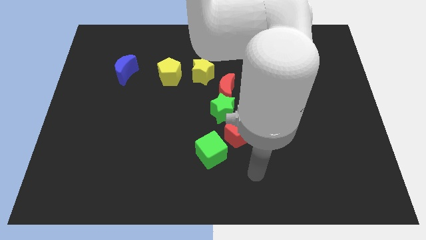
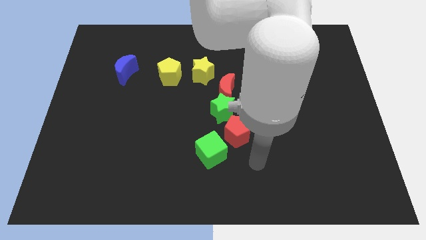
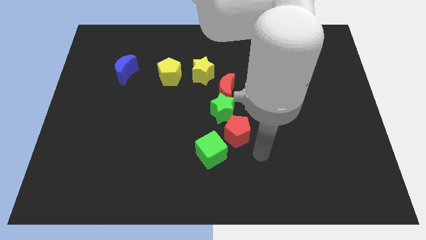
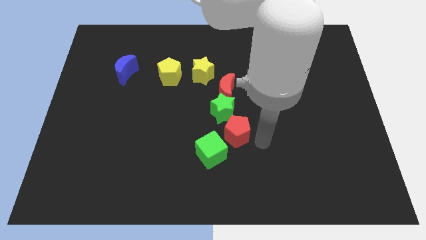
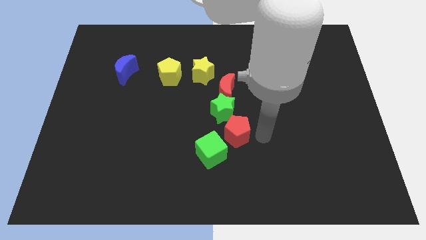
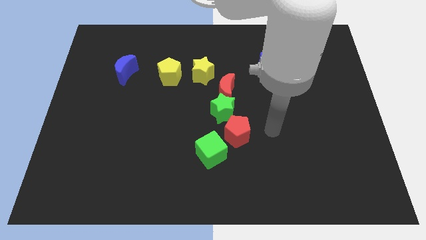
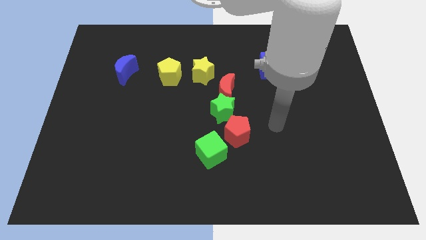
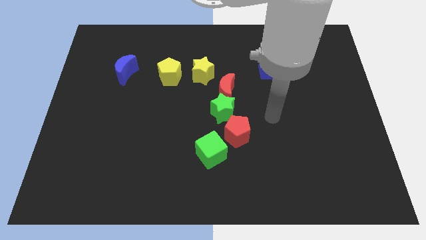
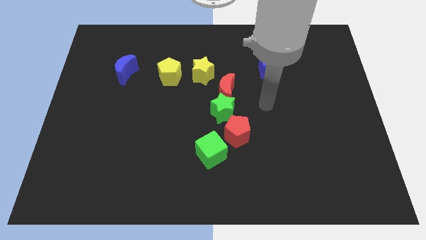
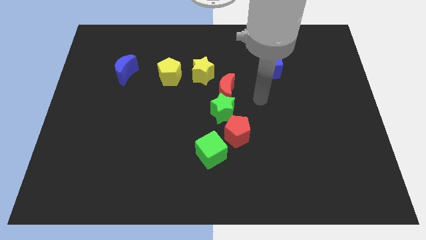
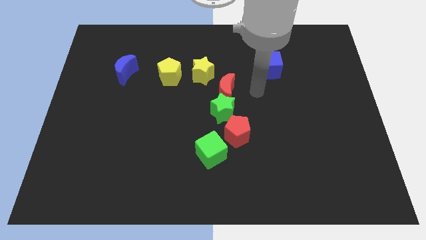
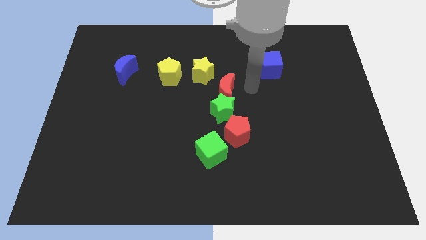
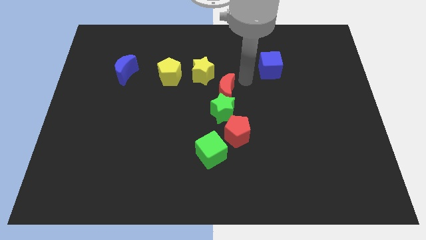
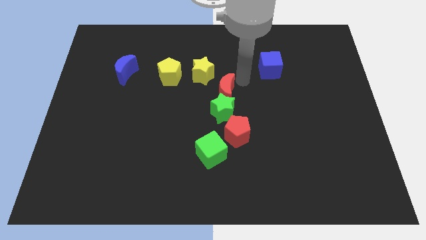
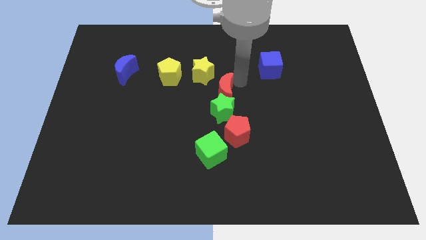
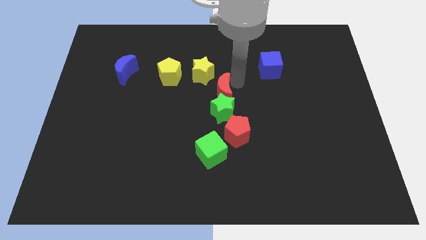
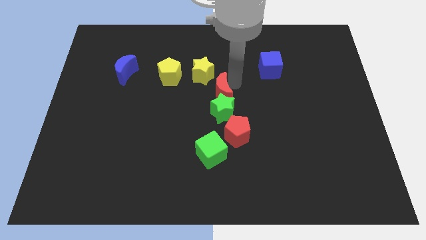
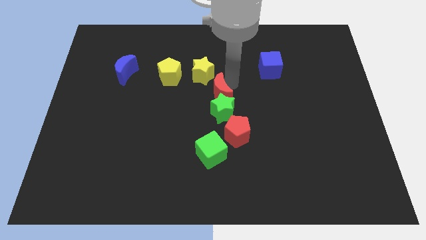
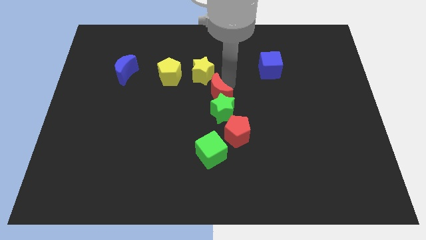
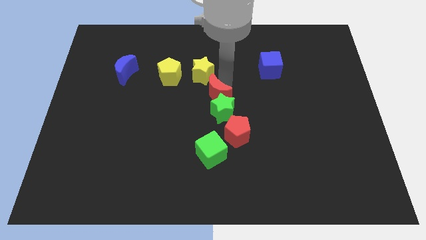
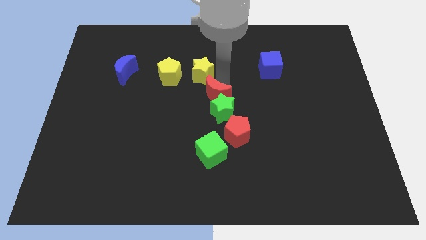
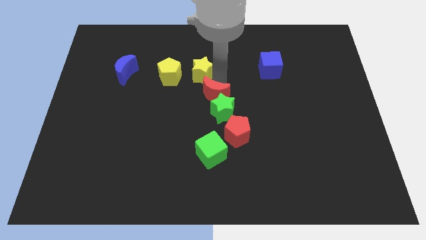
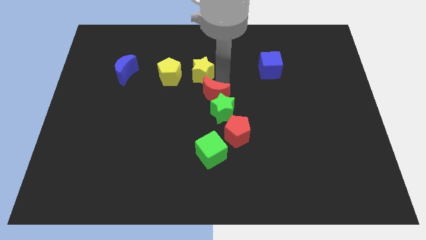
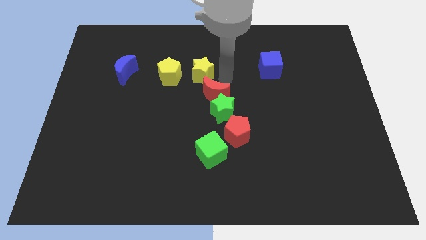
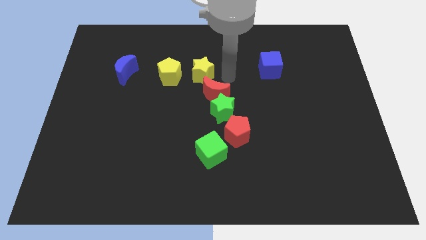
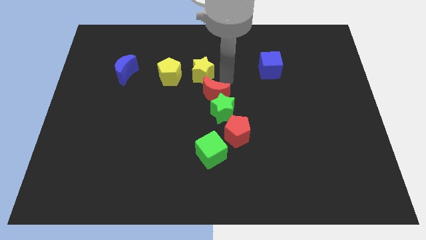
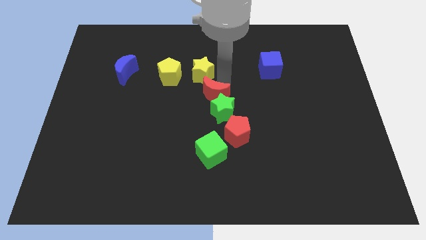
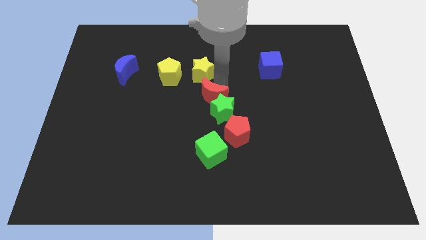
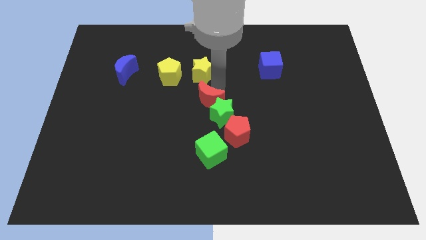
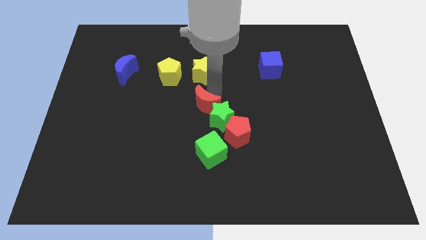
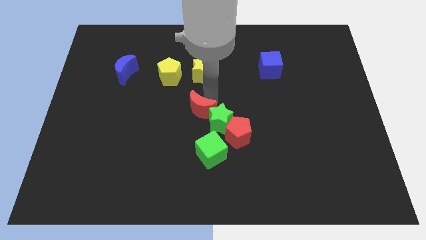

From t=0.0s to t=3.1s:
push the red moon diagonally downwards and to the left a little bit

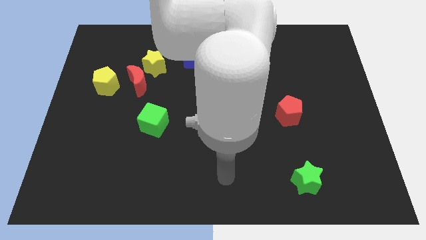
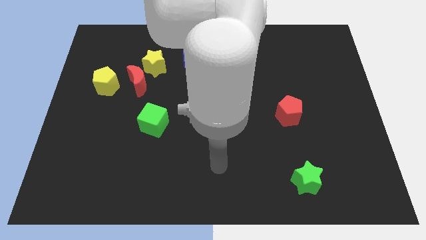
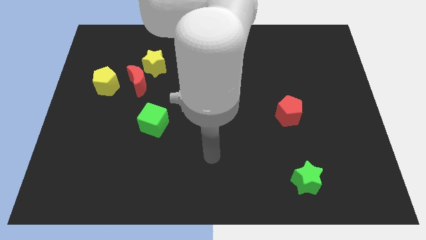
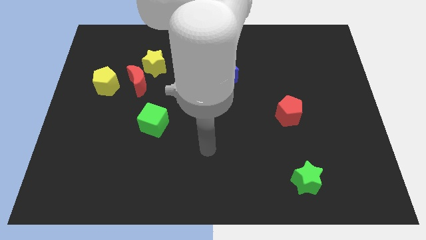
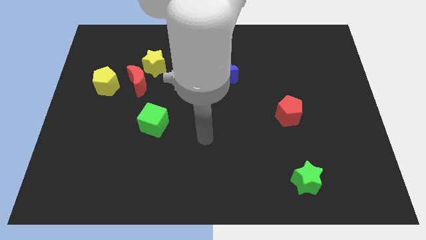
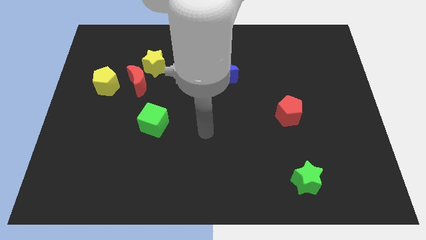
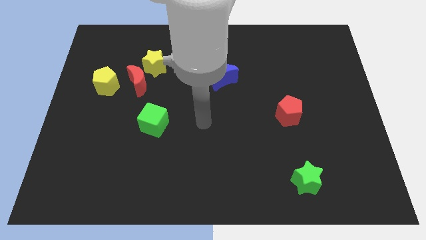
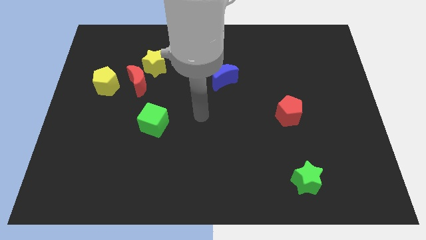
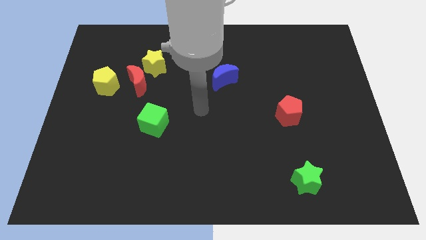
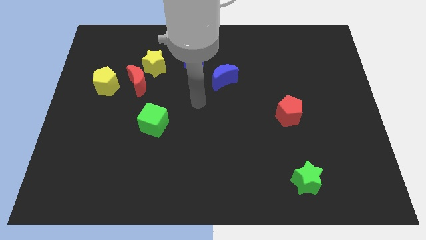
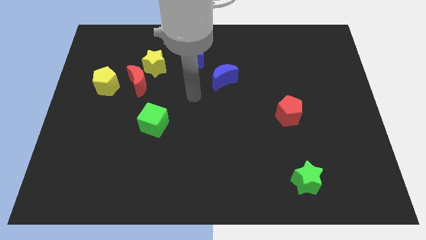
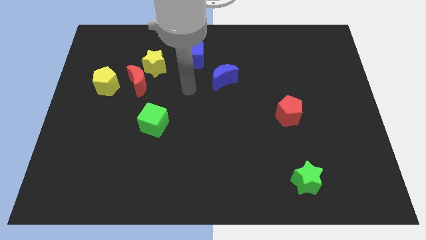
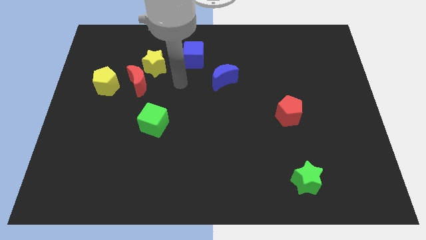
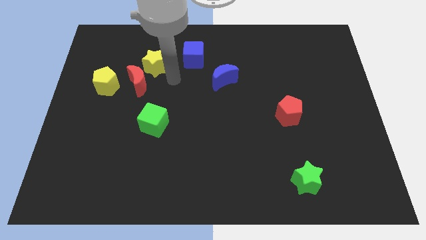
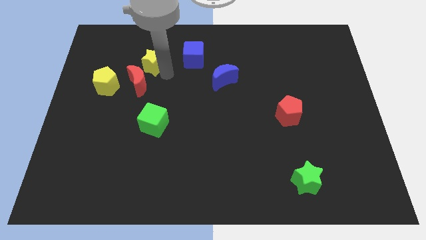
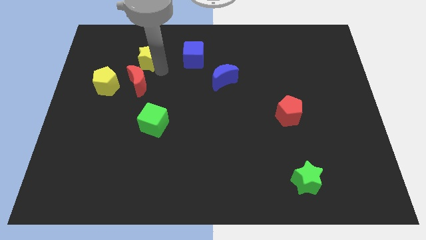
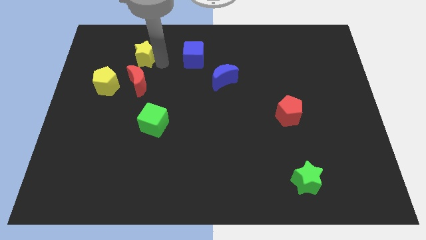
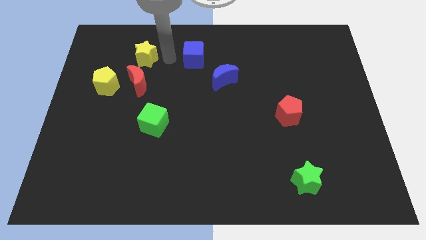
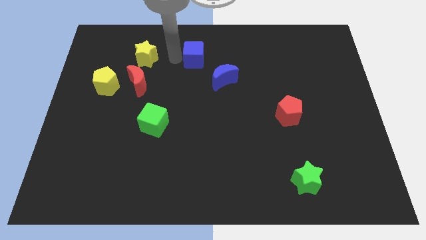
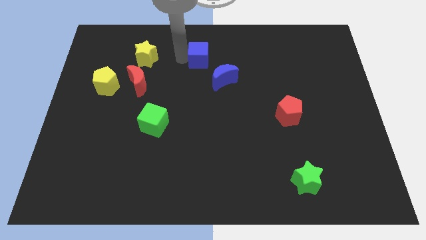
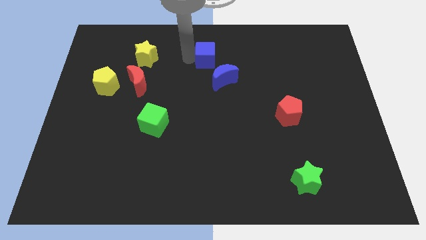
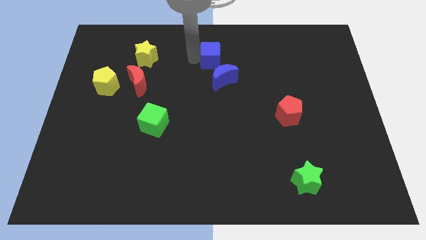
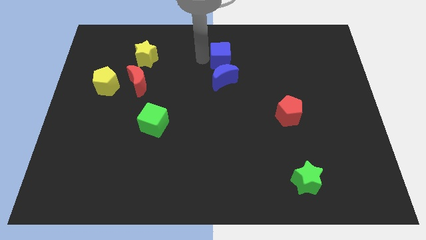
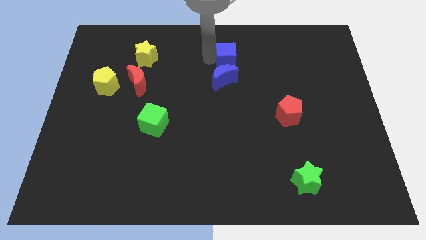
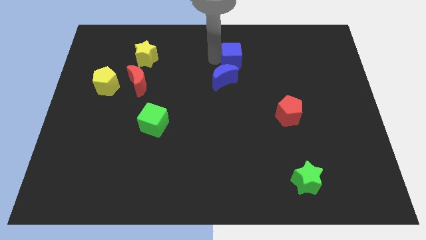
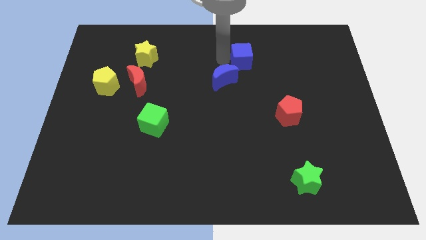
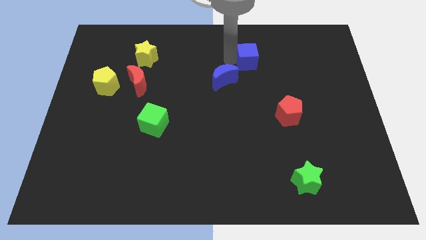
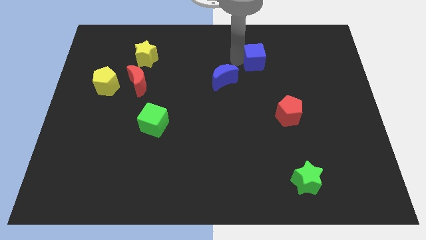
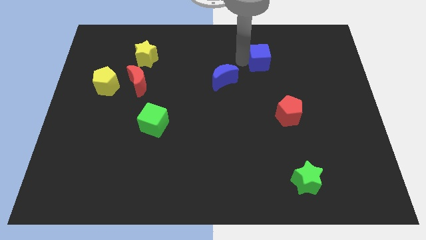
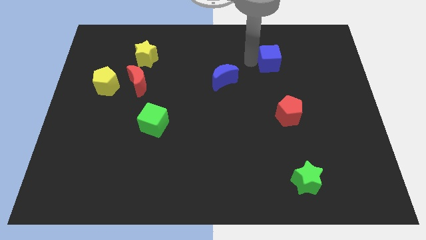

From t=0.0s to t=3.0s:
move the blue cube right

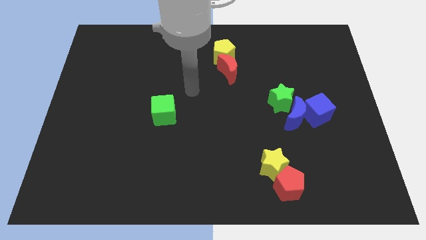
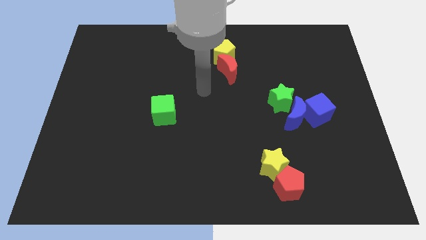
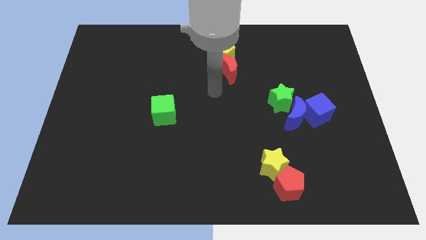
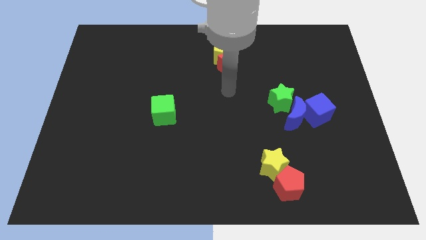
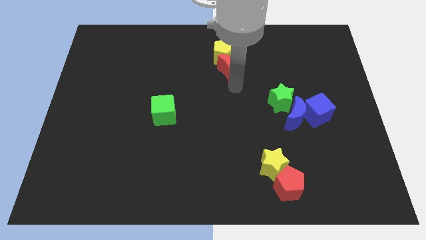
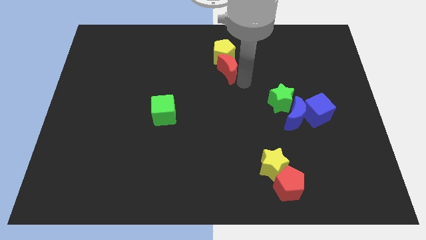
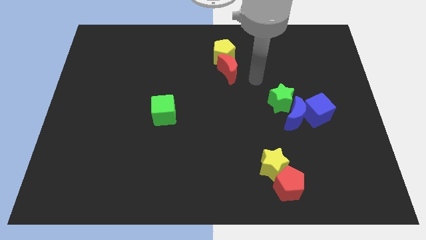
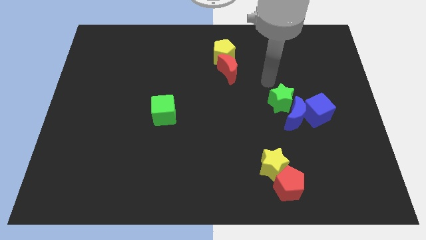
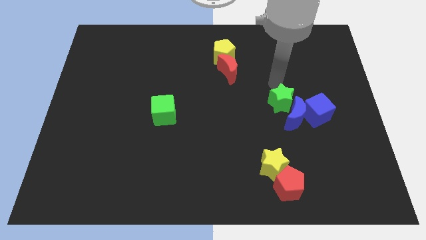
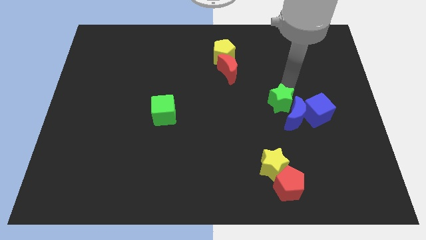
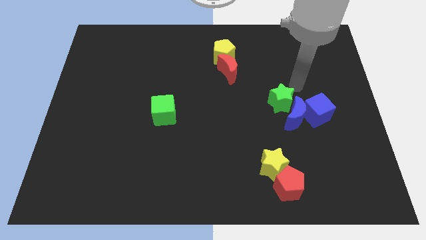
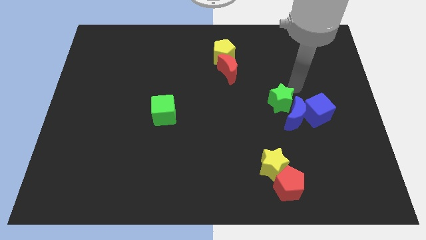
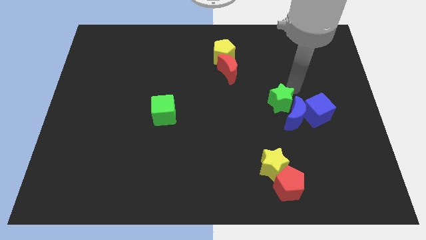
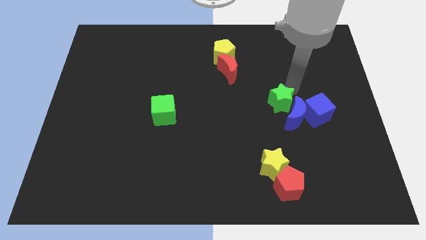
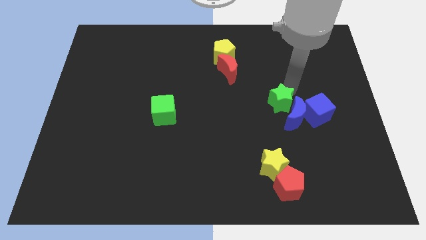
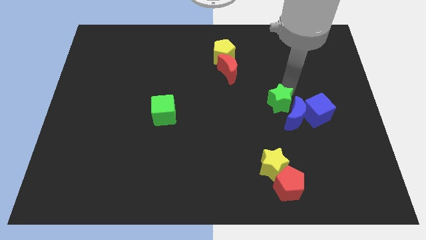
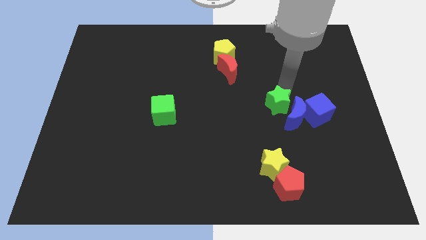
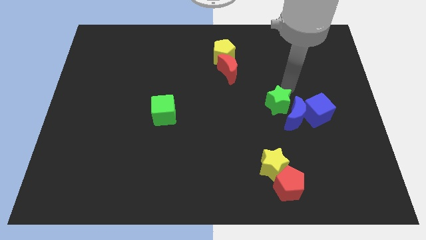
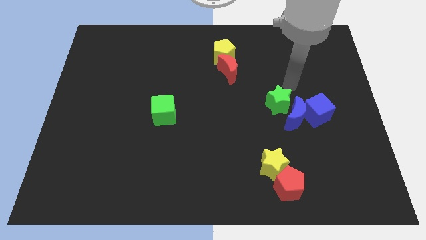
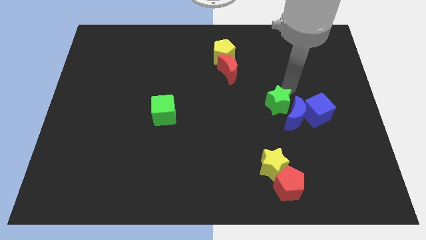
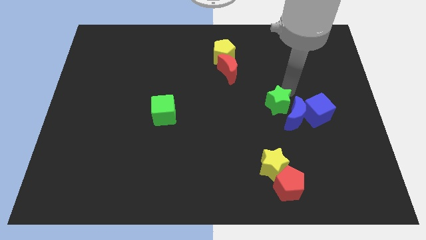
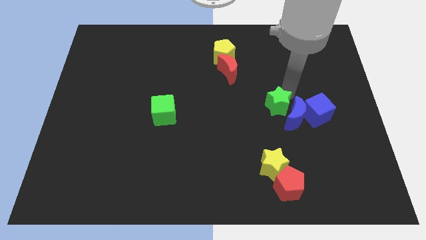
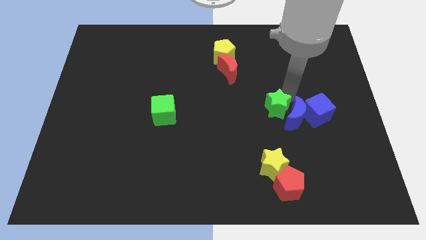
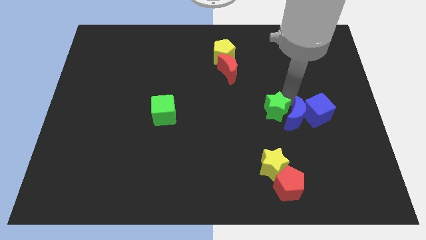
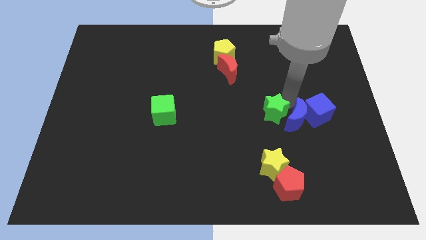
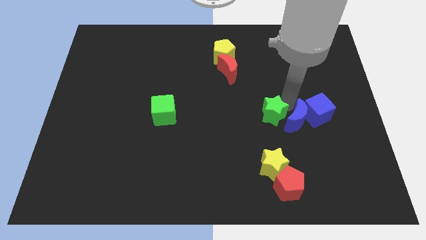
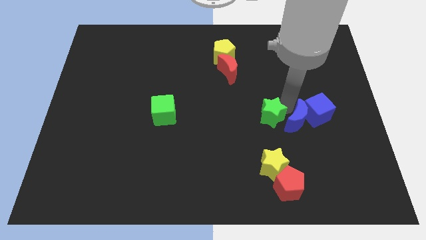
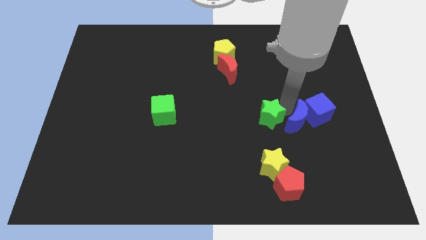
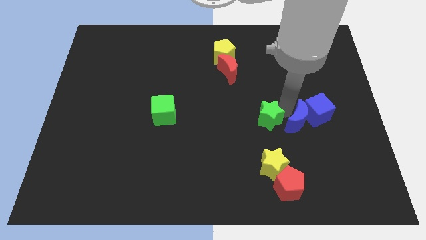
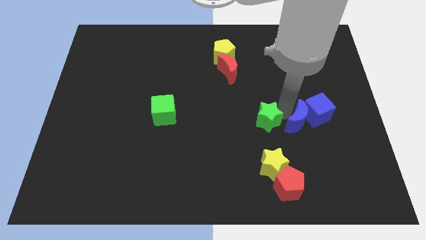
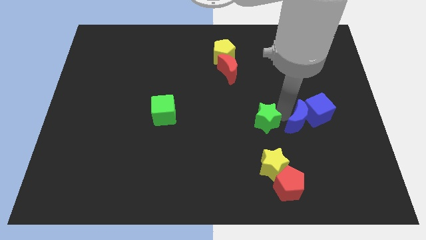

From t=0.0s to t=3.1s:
move the green star slightly downwards and left diagonally
